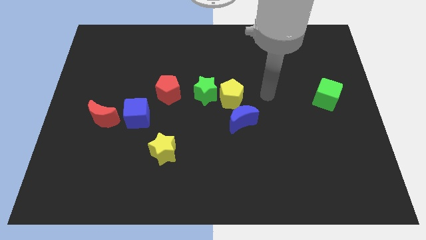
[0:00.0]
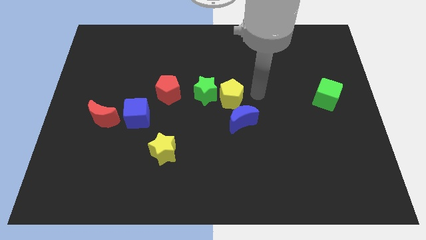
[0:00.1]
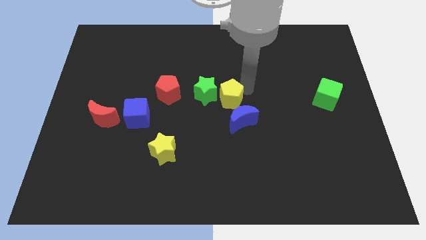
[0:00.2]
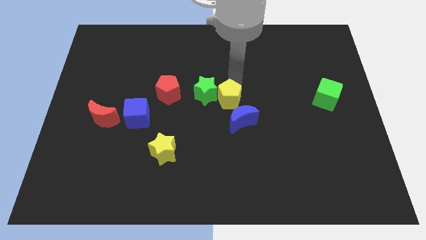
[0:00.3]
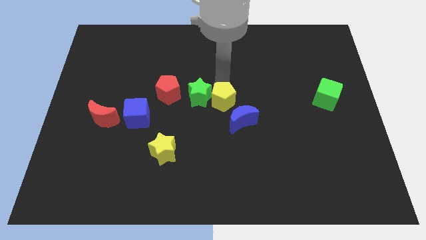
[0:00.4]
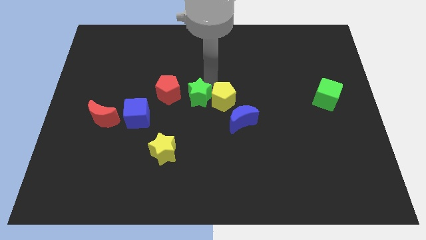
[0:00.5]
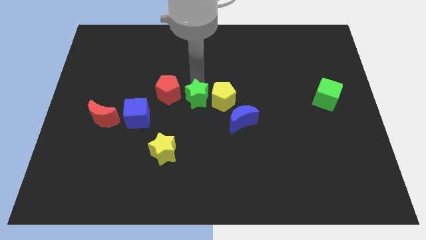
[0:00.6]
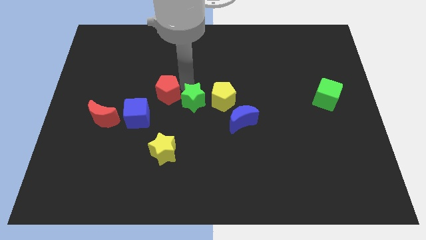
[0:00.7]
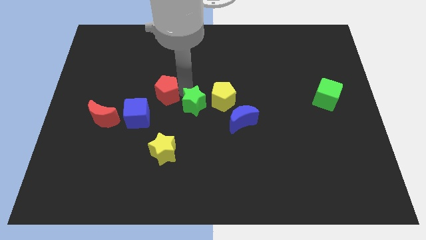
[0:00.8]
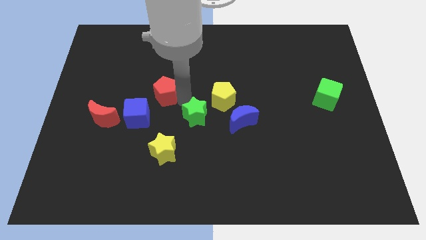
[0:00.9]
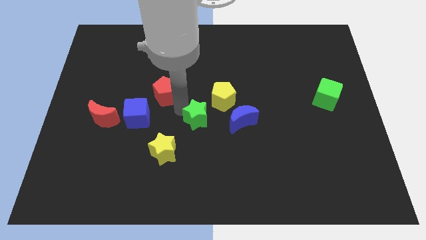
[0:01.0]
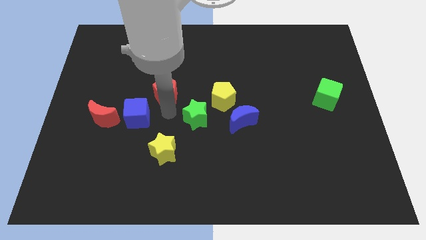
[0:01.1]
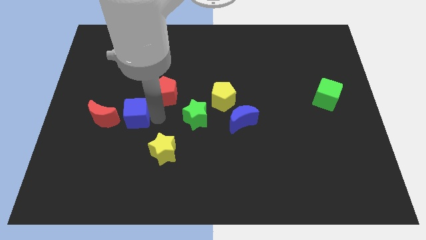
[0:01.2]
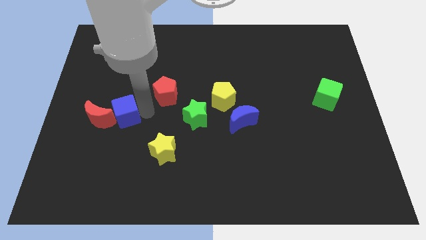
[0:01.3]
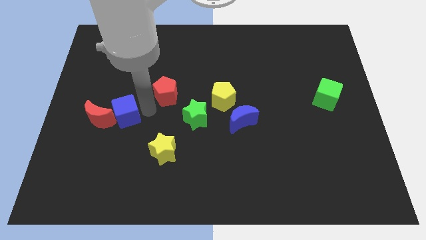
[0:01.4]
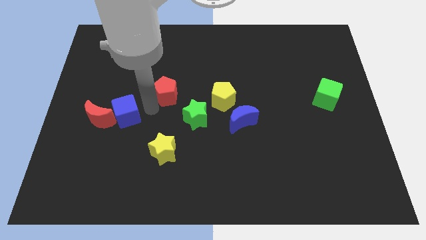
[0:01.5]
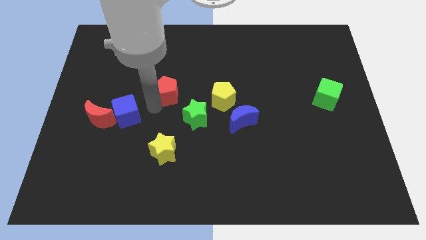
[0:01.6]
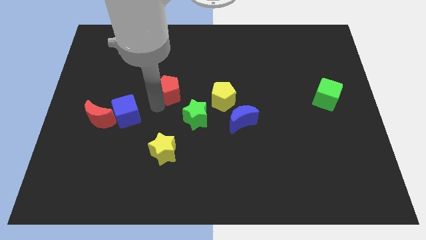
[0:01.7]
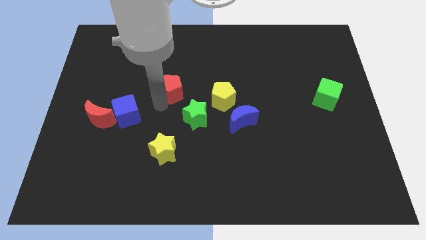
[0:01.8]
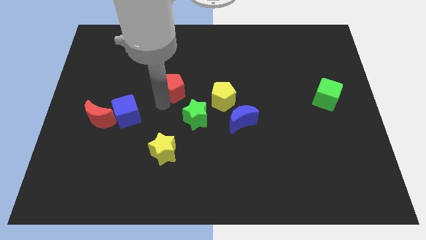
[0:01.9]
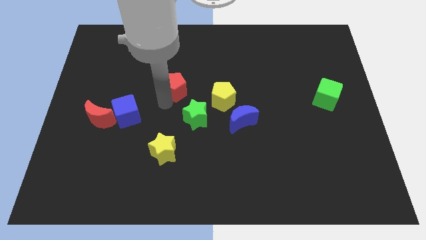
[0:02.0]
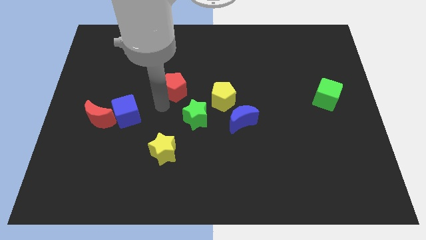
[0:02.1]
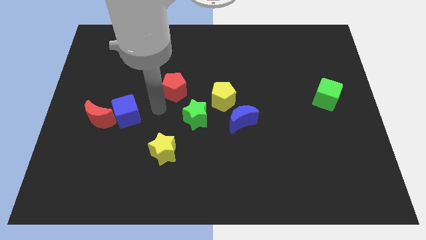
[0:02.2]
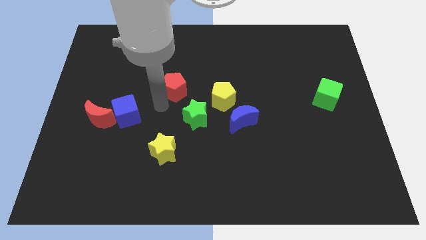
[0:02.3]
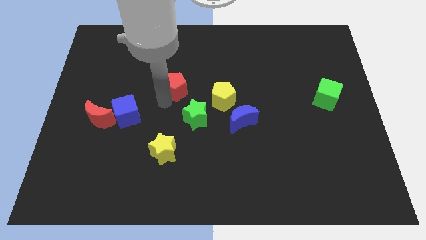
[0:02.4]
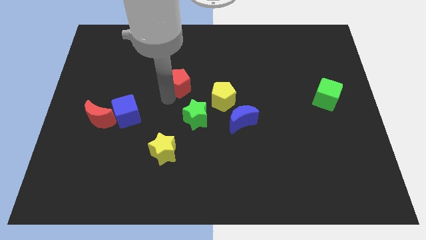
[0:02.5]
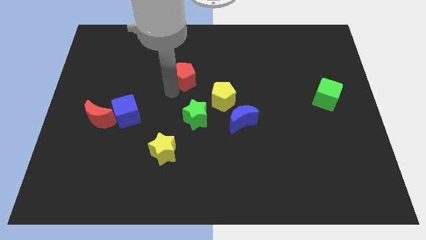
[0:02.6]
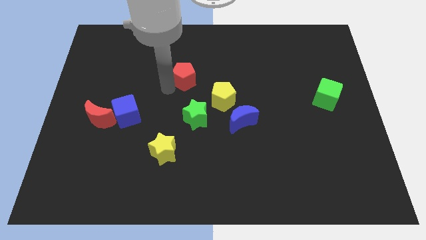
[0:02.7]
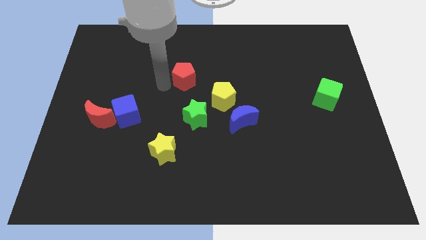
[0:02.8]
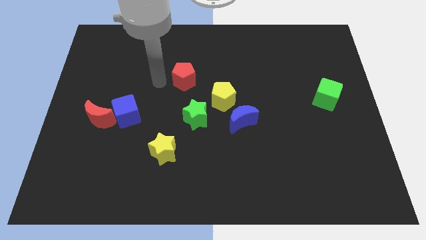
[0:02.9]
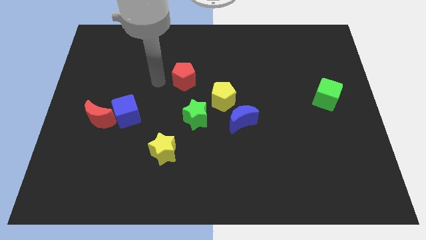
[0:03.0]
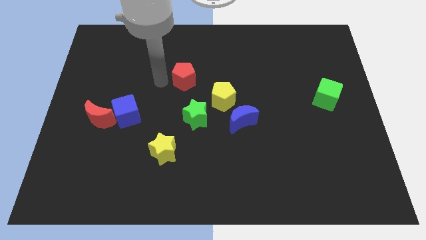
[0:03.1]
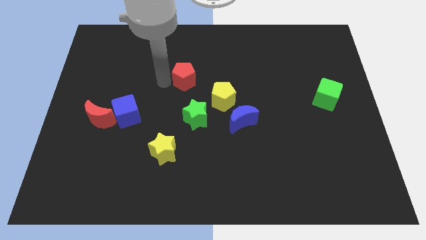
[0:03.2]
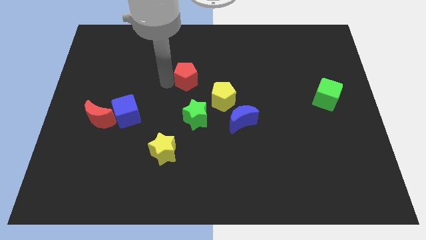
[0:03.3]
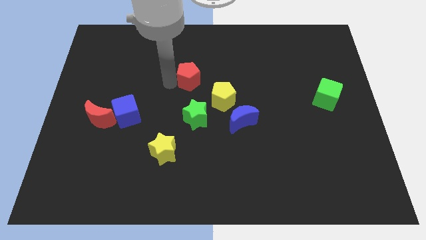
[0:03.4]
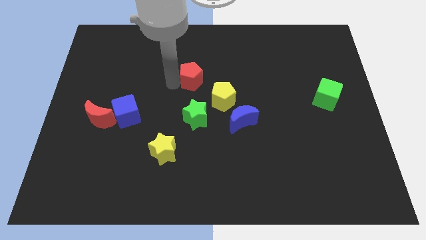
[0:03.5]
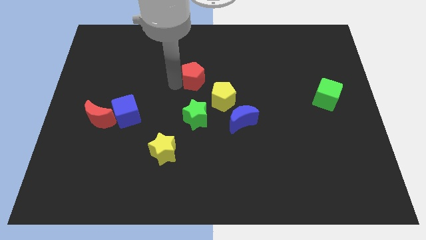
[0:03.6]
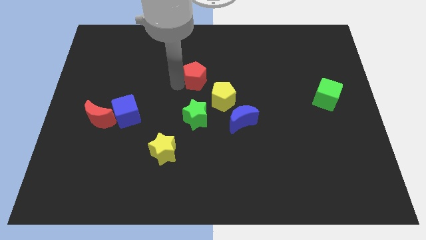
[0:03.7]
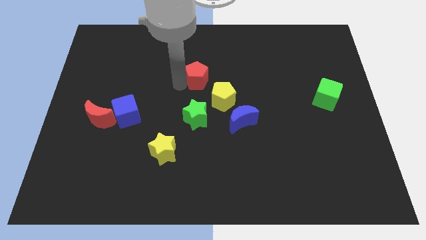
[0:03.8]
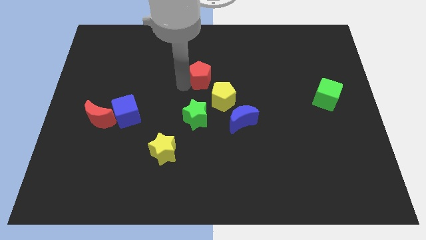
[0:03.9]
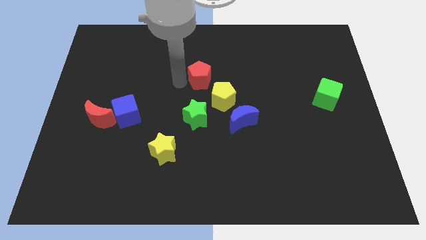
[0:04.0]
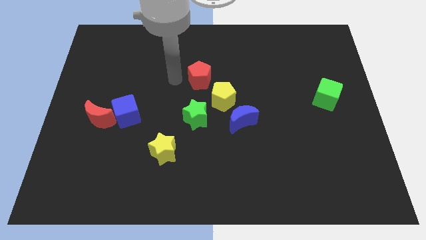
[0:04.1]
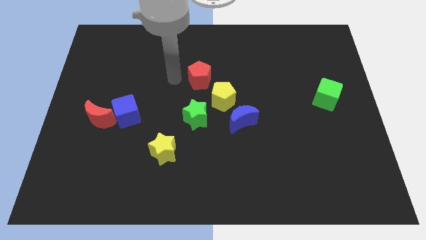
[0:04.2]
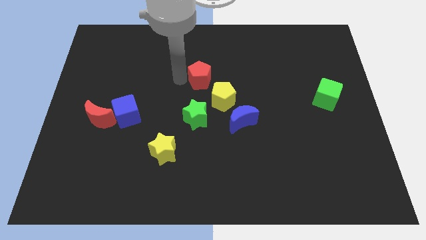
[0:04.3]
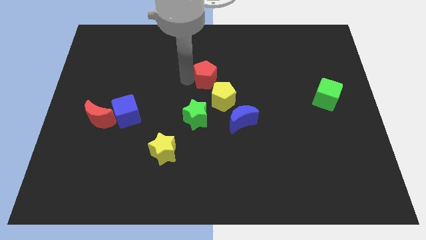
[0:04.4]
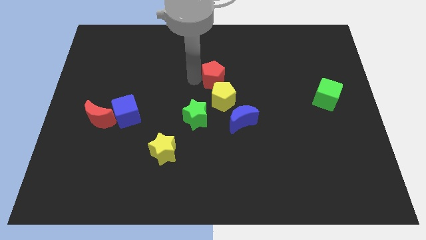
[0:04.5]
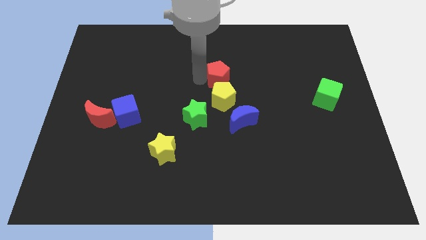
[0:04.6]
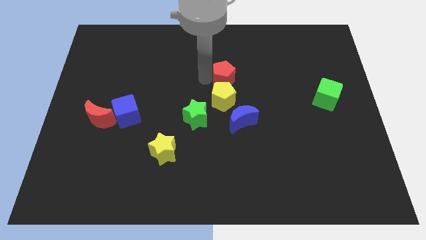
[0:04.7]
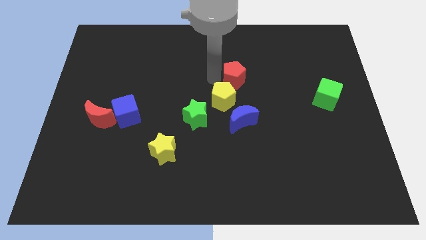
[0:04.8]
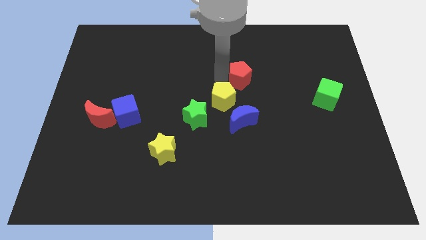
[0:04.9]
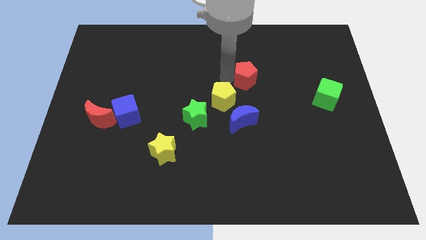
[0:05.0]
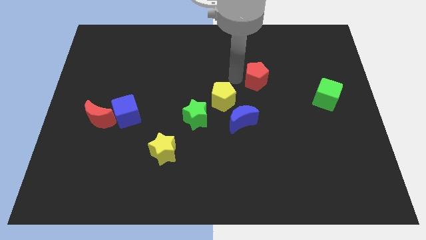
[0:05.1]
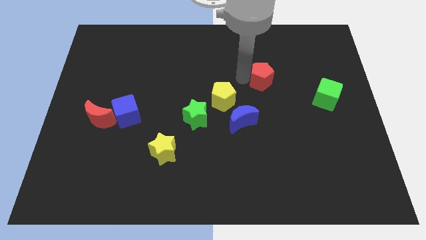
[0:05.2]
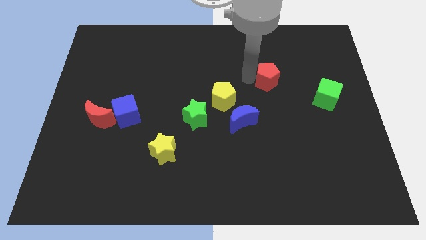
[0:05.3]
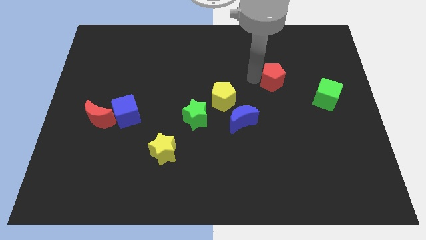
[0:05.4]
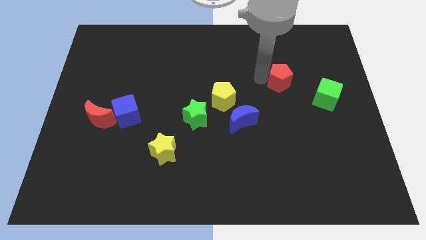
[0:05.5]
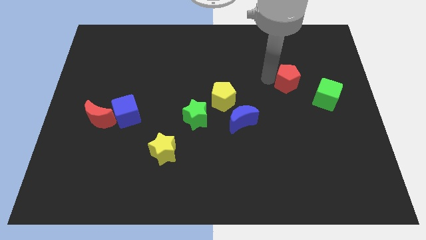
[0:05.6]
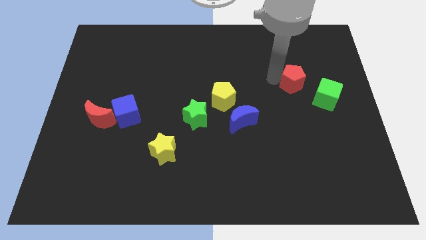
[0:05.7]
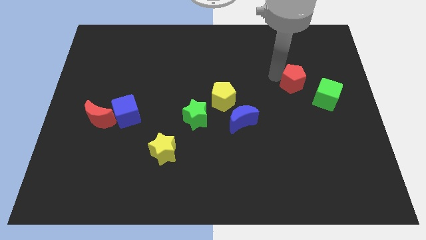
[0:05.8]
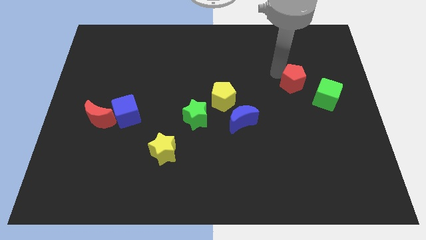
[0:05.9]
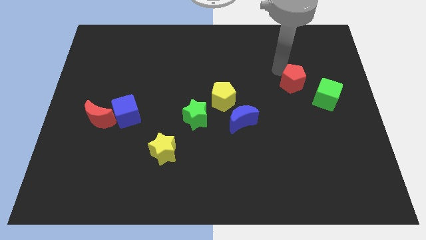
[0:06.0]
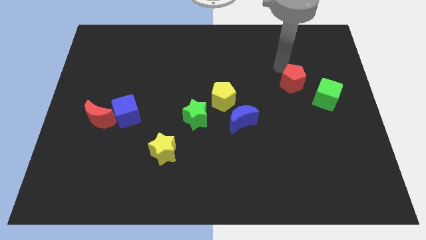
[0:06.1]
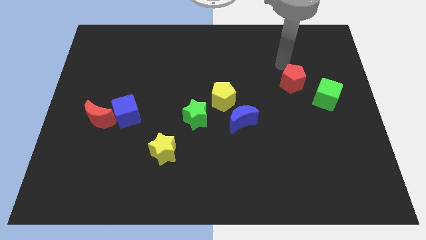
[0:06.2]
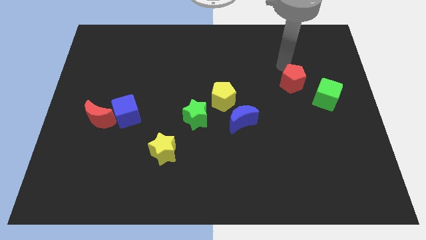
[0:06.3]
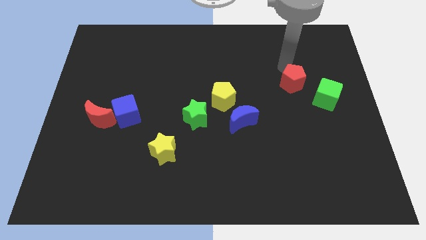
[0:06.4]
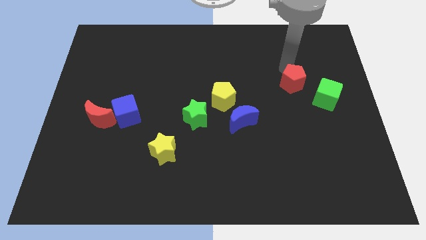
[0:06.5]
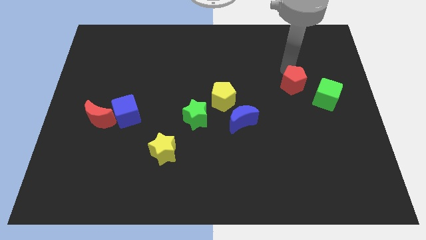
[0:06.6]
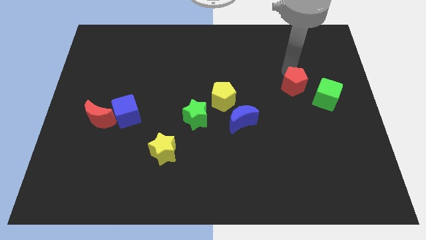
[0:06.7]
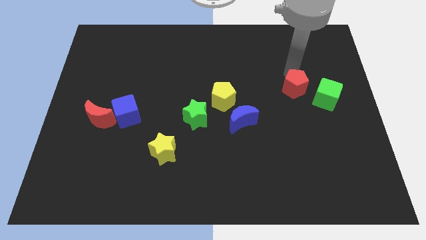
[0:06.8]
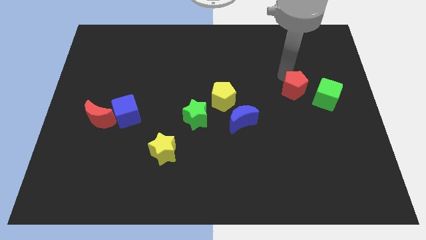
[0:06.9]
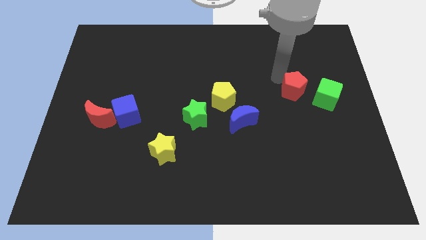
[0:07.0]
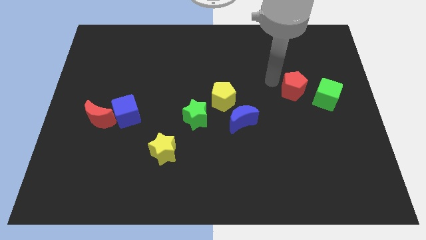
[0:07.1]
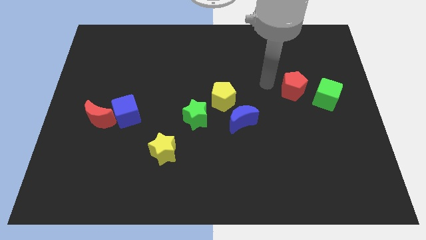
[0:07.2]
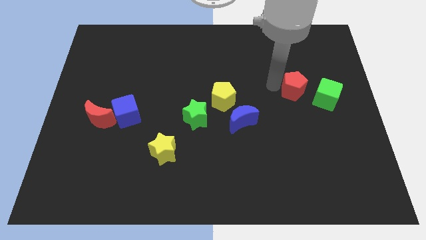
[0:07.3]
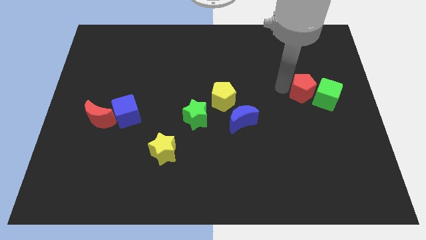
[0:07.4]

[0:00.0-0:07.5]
move the red pentagon to the green cube
